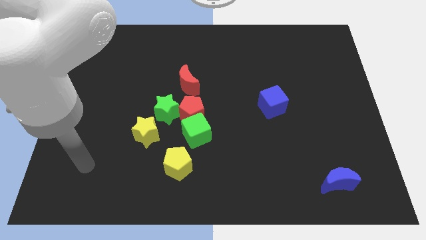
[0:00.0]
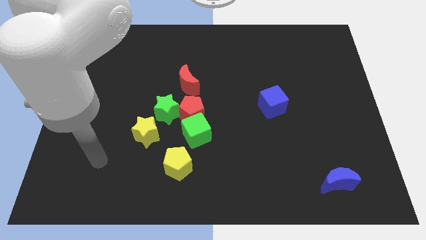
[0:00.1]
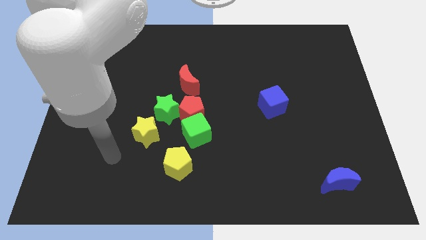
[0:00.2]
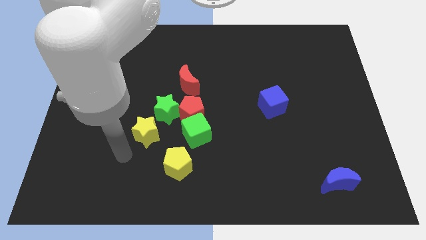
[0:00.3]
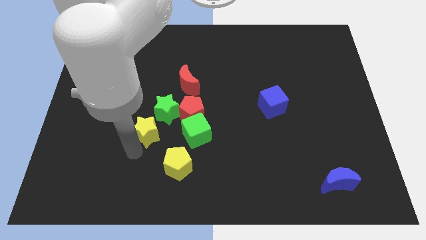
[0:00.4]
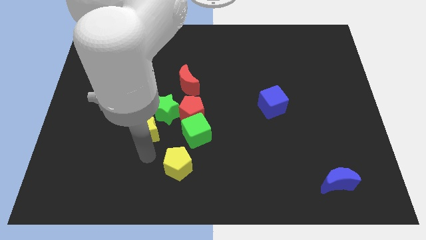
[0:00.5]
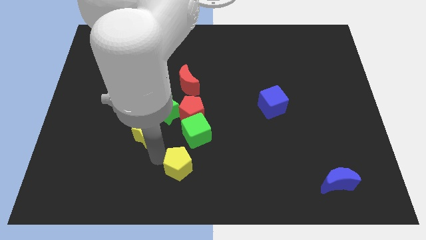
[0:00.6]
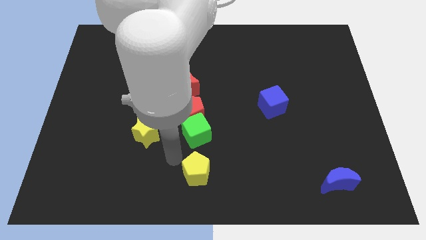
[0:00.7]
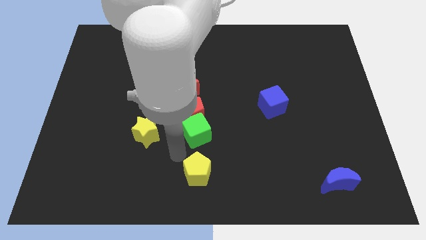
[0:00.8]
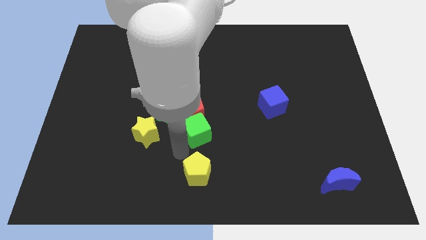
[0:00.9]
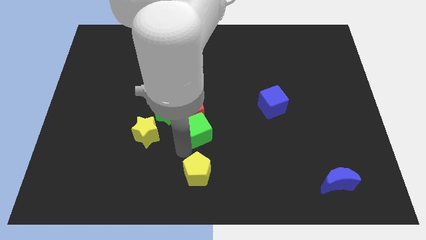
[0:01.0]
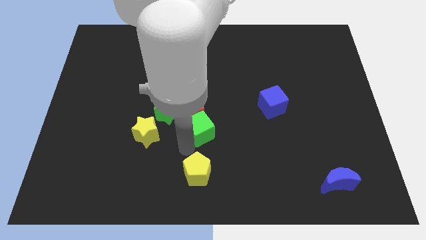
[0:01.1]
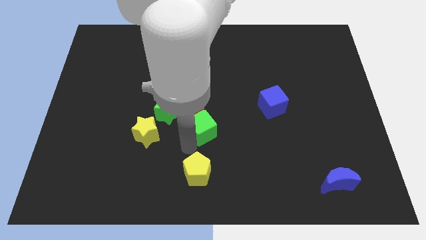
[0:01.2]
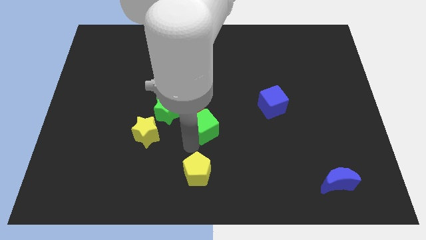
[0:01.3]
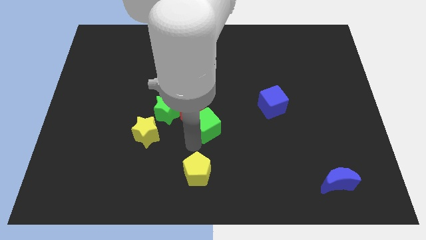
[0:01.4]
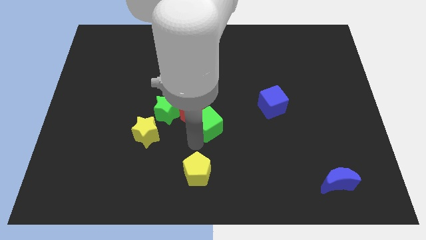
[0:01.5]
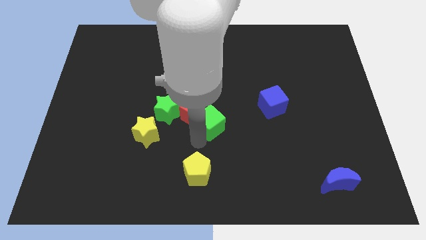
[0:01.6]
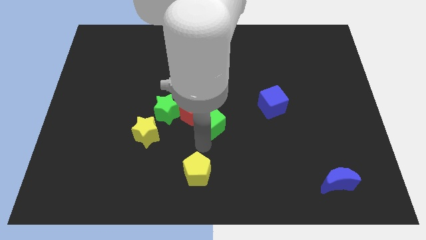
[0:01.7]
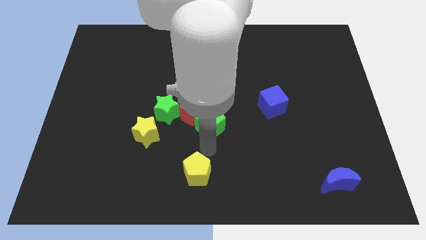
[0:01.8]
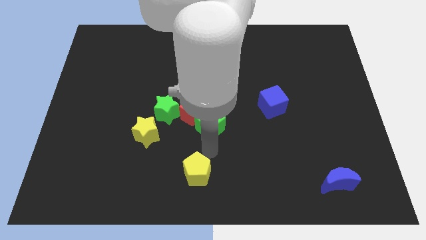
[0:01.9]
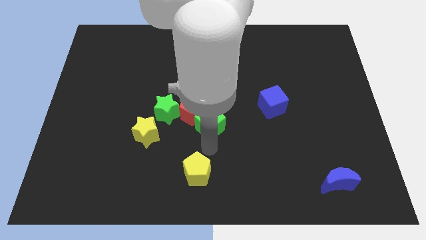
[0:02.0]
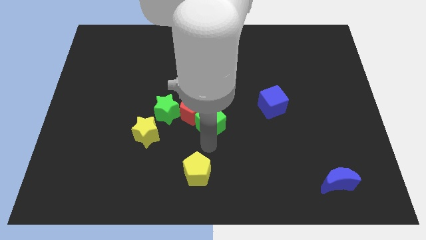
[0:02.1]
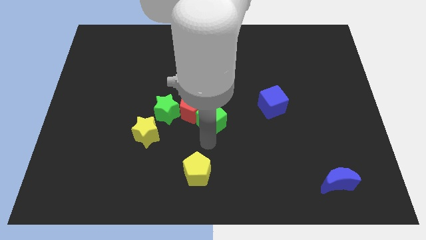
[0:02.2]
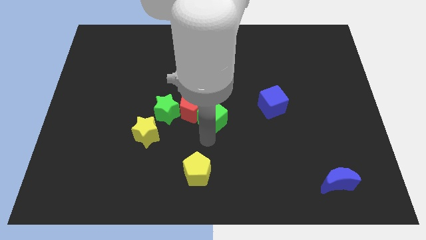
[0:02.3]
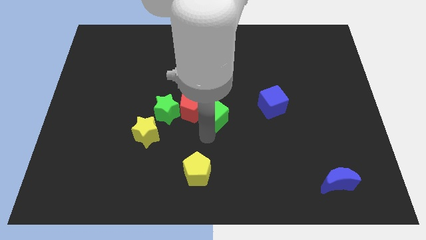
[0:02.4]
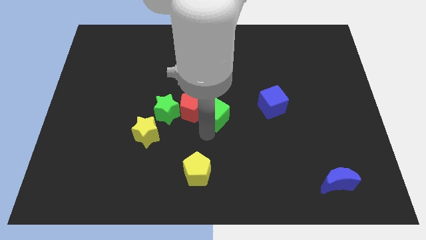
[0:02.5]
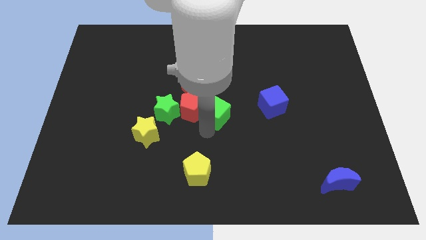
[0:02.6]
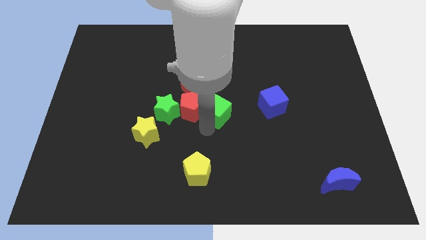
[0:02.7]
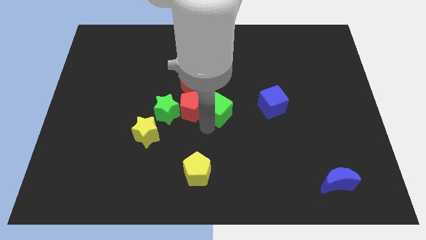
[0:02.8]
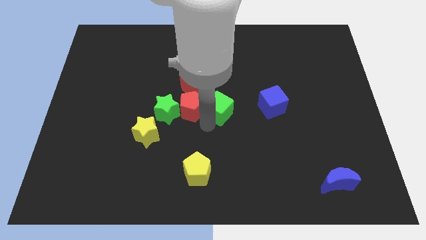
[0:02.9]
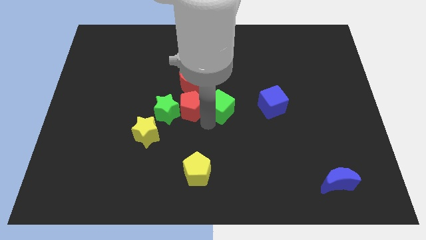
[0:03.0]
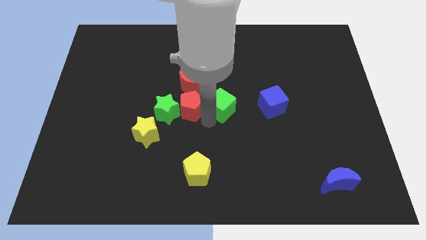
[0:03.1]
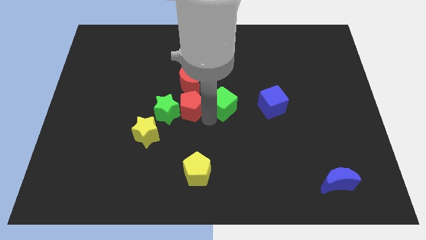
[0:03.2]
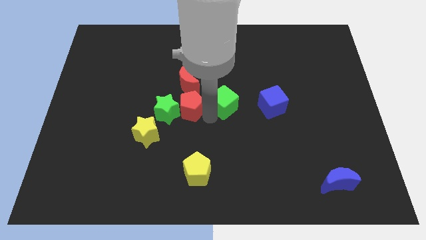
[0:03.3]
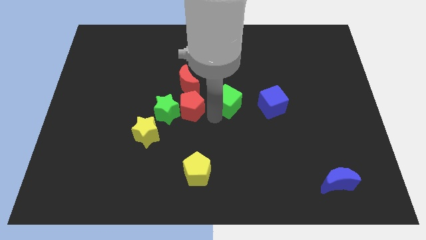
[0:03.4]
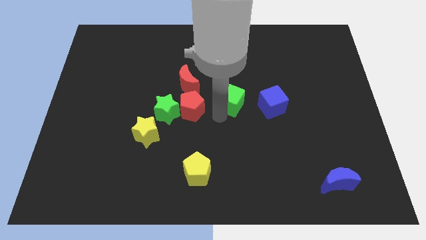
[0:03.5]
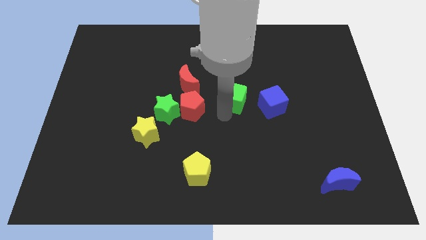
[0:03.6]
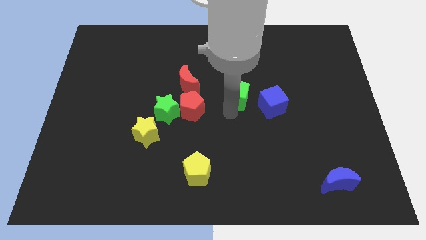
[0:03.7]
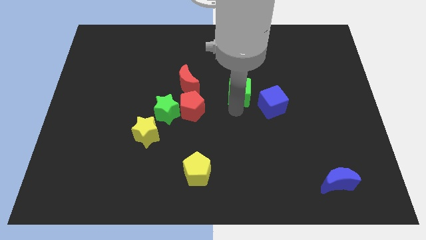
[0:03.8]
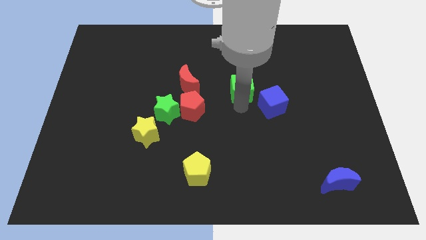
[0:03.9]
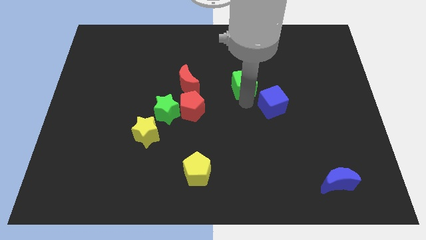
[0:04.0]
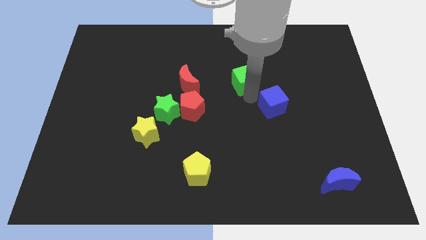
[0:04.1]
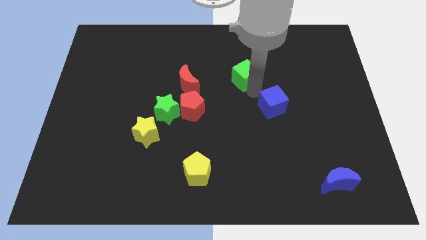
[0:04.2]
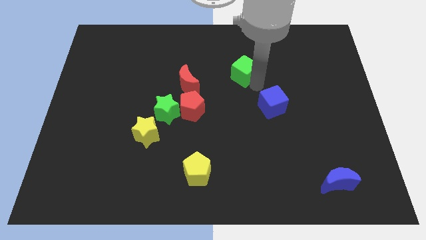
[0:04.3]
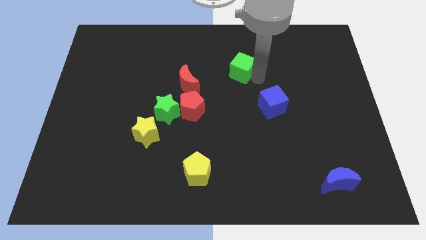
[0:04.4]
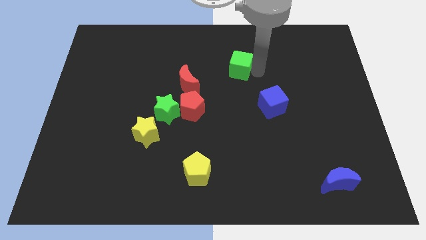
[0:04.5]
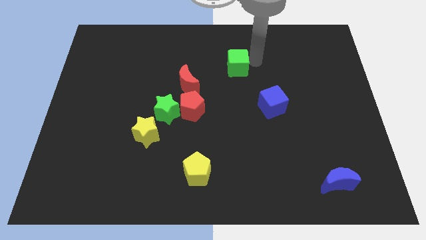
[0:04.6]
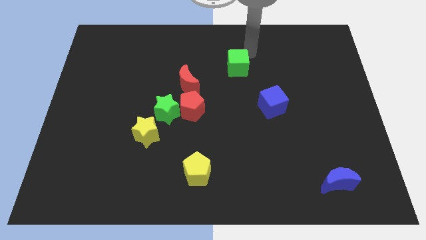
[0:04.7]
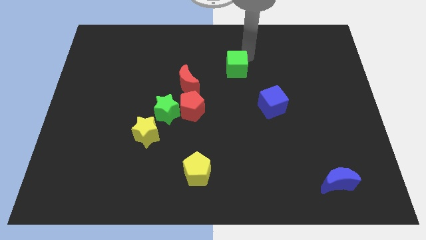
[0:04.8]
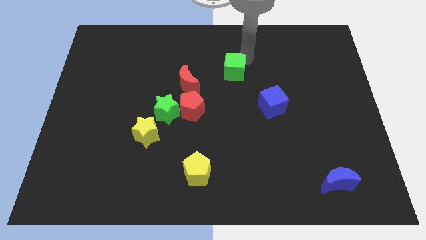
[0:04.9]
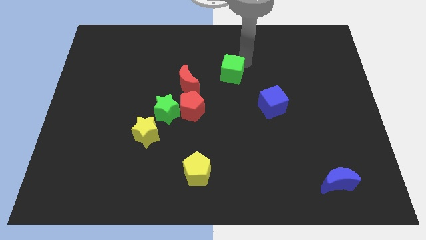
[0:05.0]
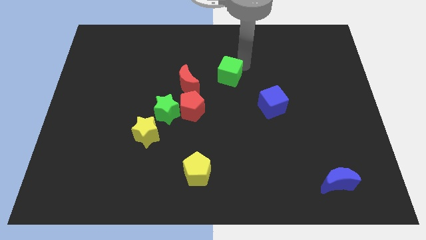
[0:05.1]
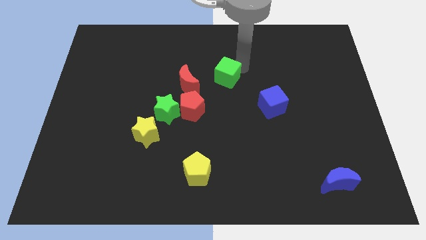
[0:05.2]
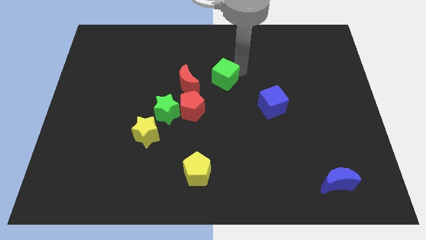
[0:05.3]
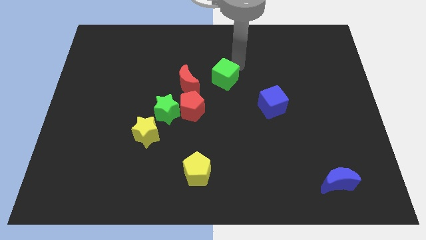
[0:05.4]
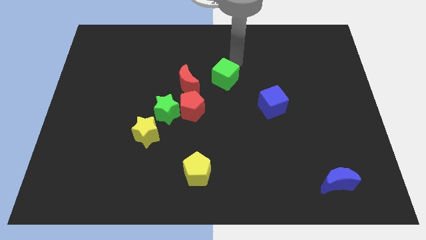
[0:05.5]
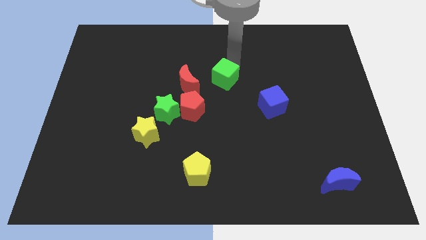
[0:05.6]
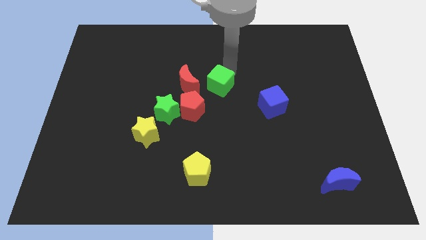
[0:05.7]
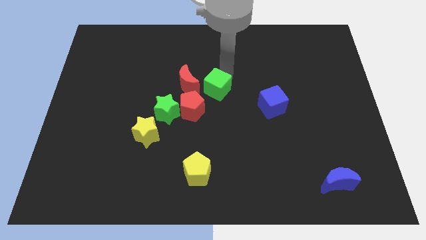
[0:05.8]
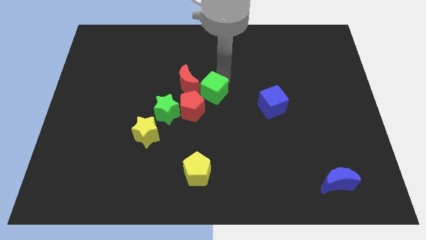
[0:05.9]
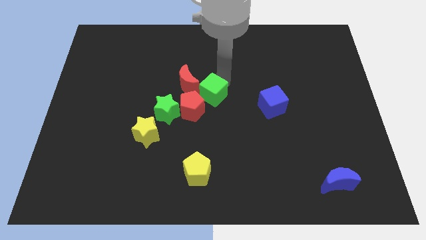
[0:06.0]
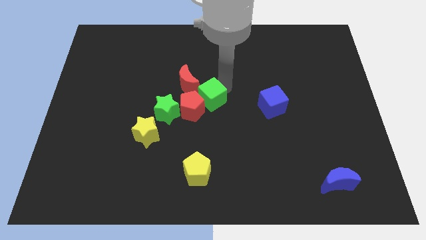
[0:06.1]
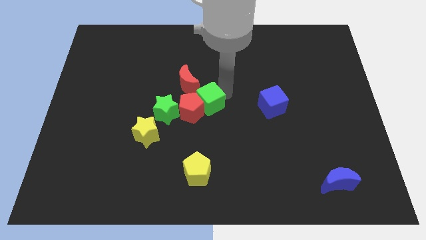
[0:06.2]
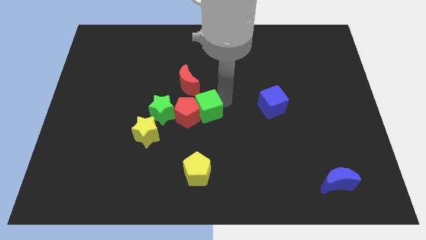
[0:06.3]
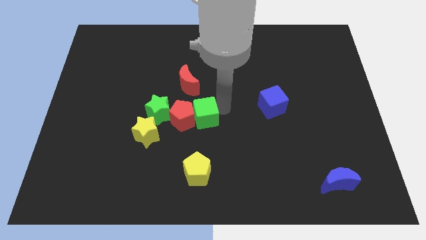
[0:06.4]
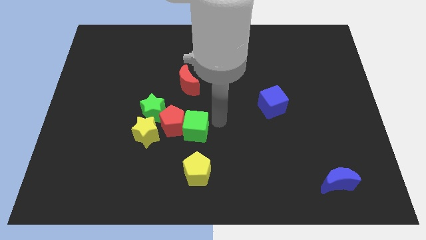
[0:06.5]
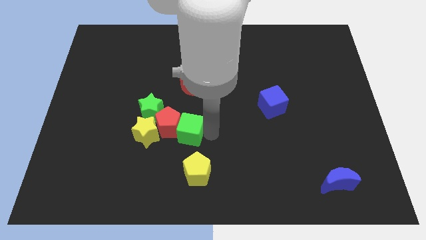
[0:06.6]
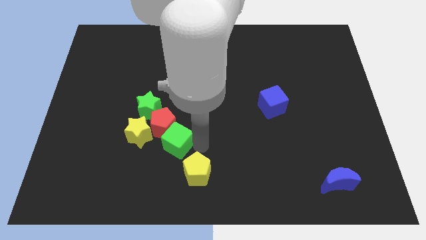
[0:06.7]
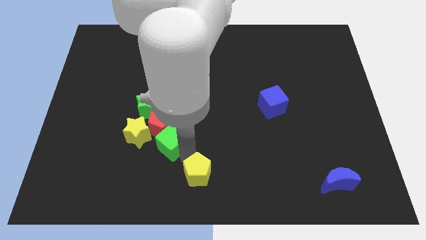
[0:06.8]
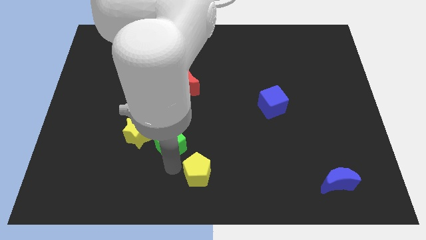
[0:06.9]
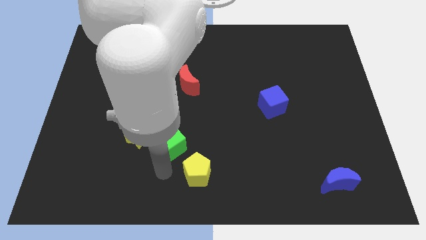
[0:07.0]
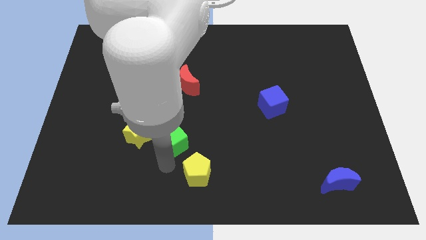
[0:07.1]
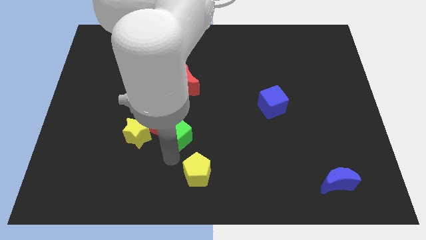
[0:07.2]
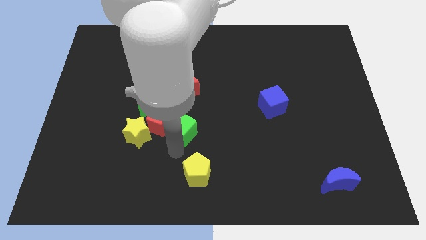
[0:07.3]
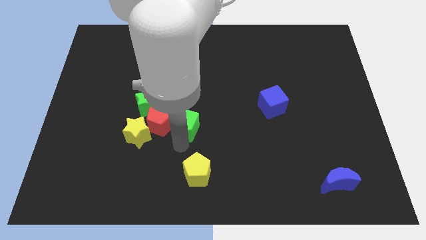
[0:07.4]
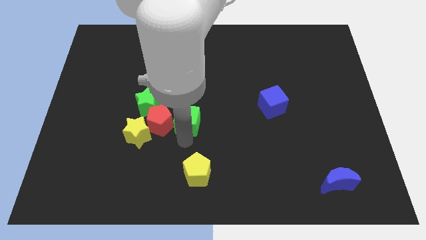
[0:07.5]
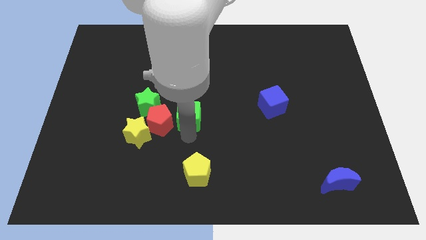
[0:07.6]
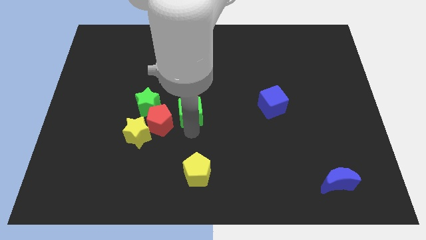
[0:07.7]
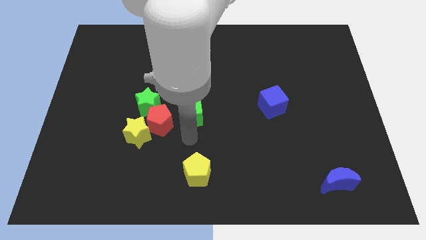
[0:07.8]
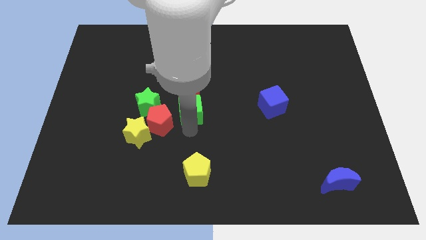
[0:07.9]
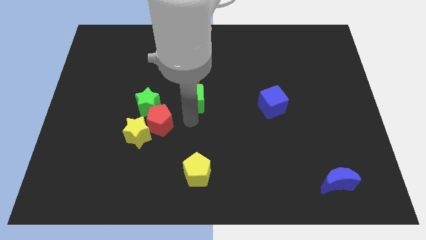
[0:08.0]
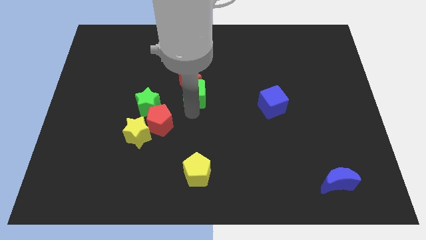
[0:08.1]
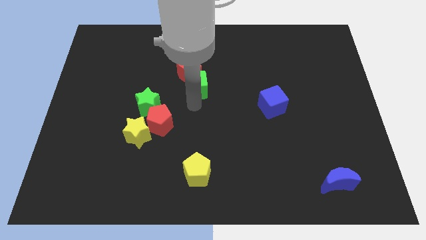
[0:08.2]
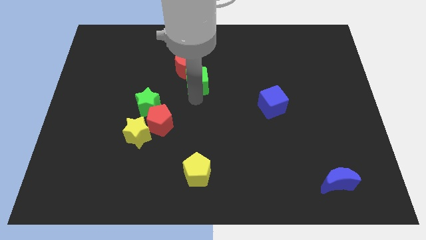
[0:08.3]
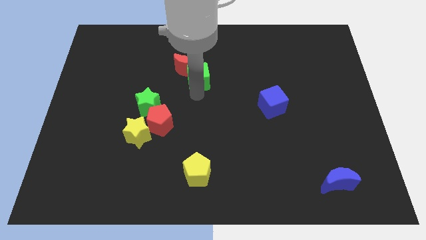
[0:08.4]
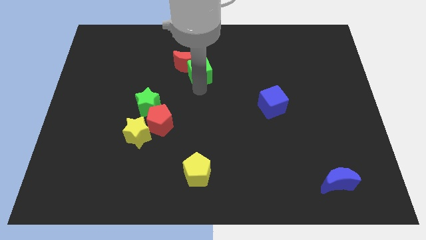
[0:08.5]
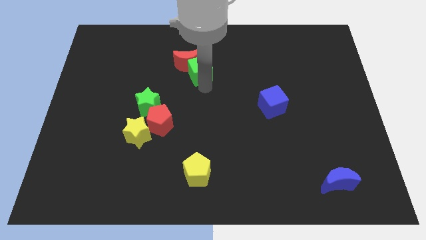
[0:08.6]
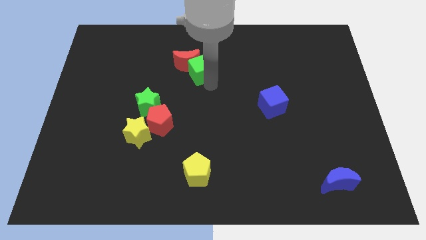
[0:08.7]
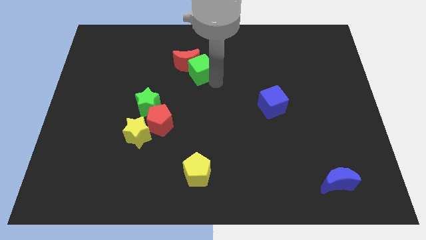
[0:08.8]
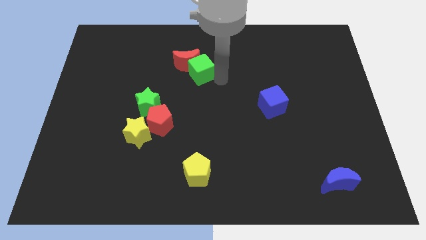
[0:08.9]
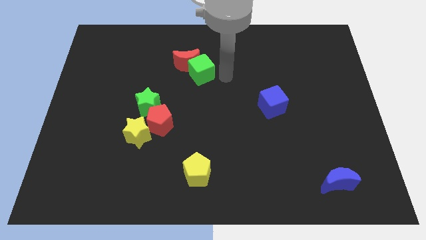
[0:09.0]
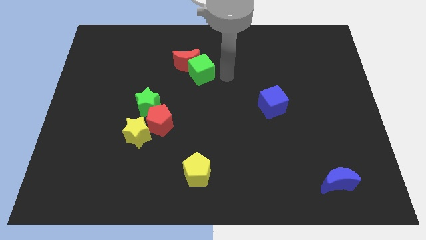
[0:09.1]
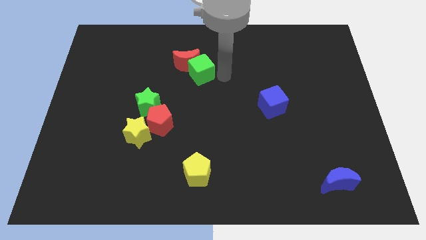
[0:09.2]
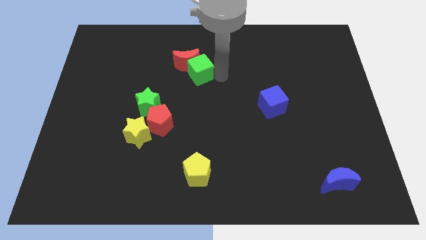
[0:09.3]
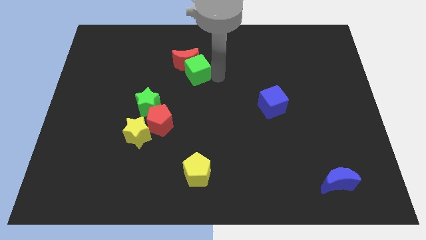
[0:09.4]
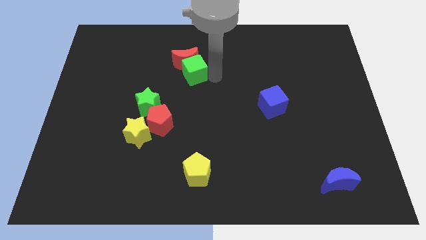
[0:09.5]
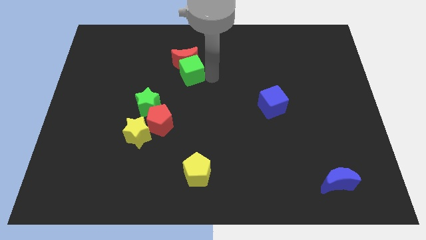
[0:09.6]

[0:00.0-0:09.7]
move the green cube somewhat up and to the left
